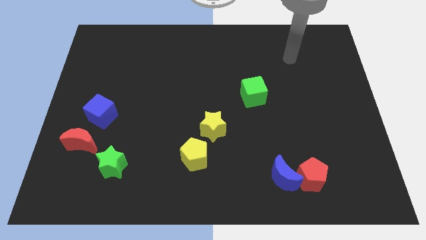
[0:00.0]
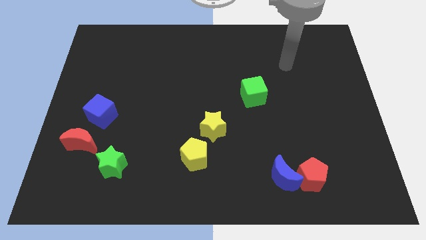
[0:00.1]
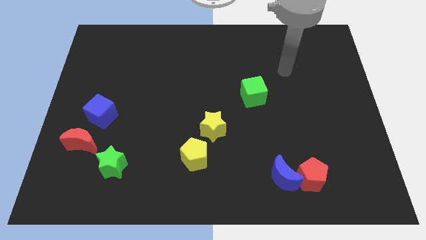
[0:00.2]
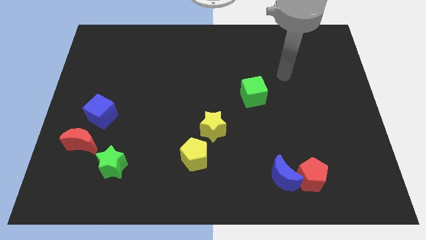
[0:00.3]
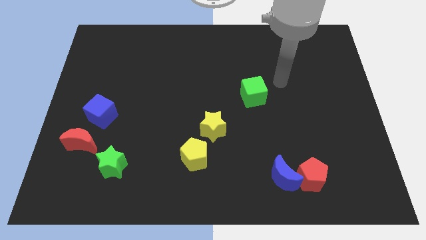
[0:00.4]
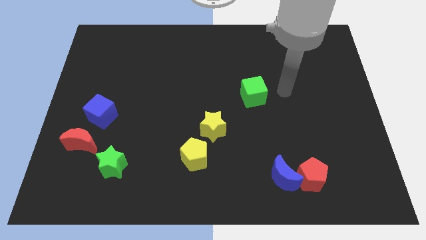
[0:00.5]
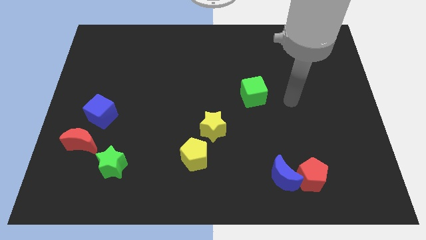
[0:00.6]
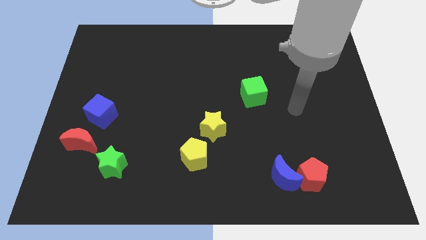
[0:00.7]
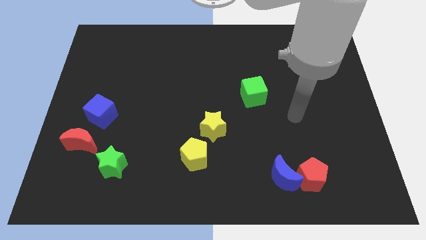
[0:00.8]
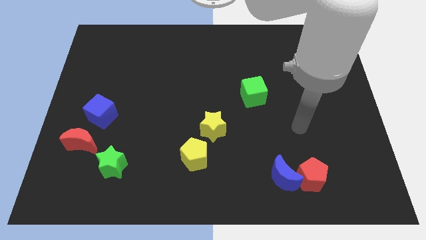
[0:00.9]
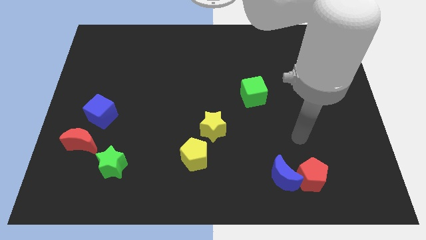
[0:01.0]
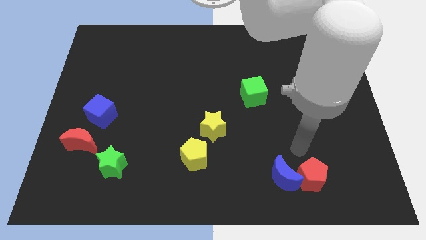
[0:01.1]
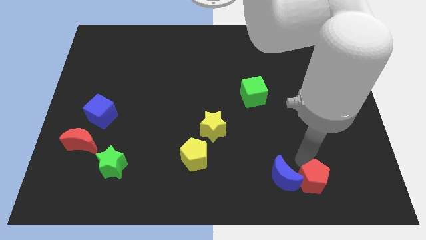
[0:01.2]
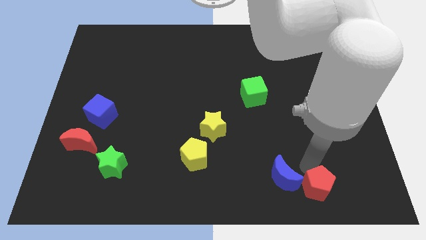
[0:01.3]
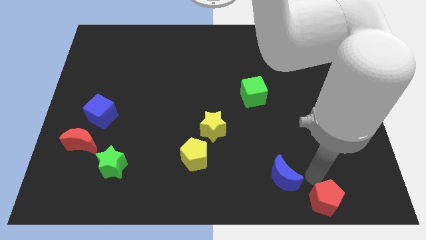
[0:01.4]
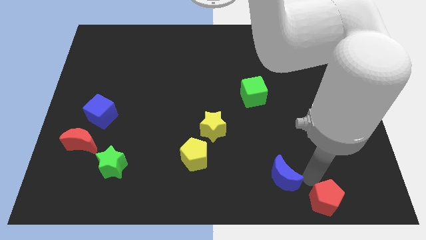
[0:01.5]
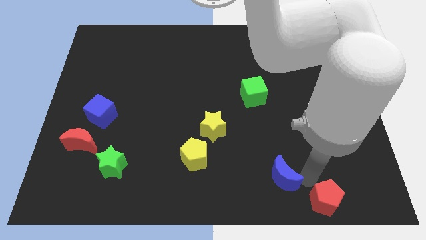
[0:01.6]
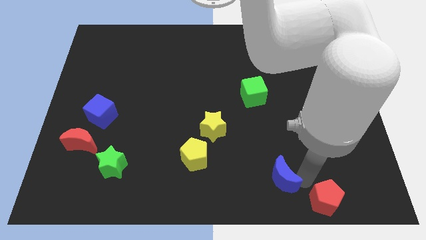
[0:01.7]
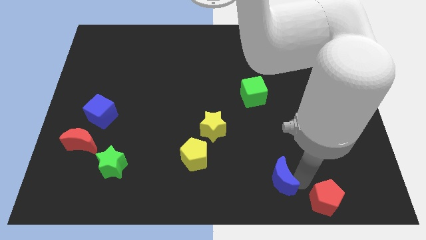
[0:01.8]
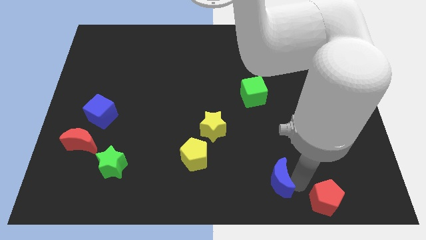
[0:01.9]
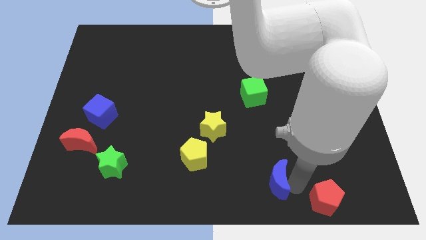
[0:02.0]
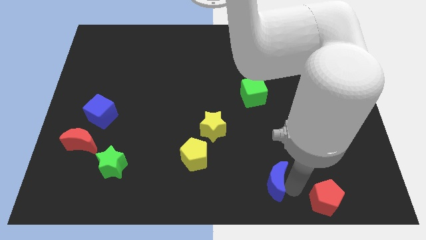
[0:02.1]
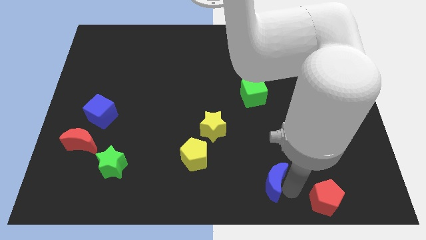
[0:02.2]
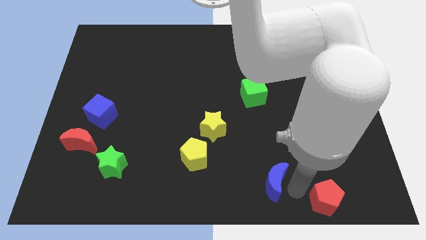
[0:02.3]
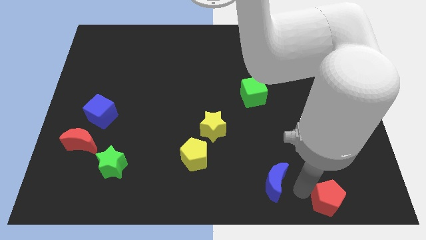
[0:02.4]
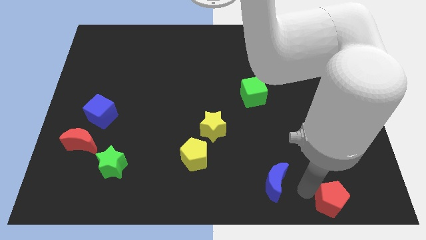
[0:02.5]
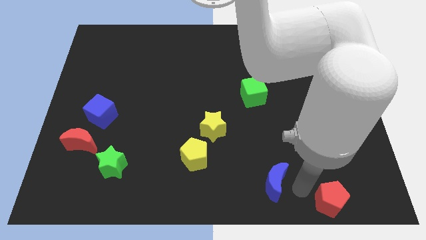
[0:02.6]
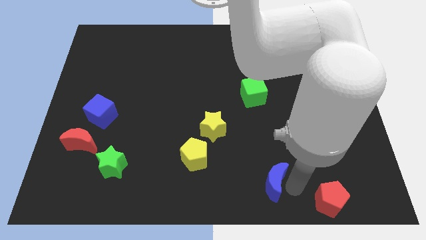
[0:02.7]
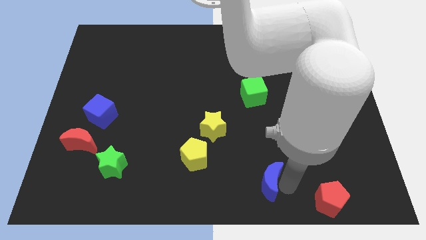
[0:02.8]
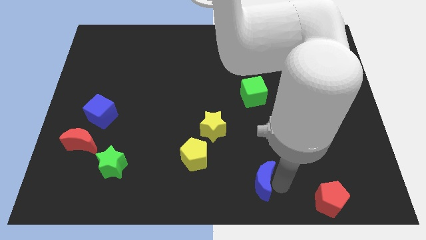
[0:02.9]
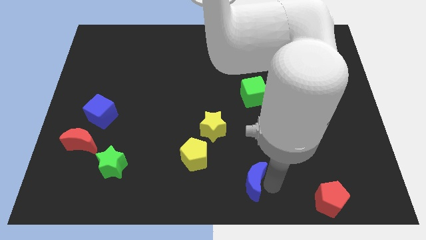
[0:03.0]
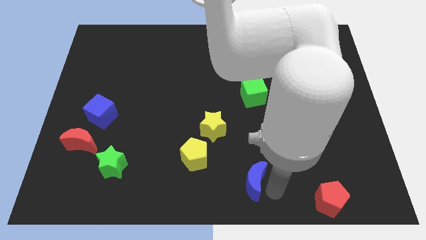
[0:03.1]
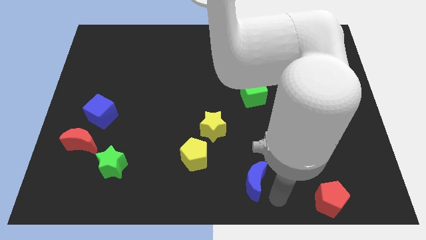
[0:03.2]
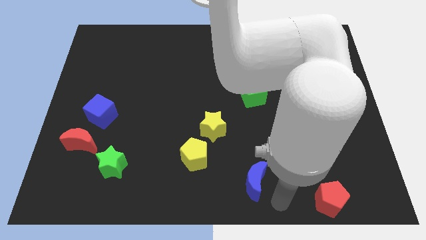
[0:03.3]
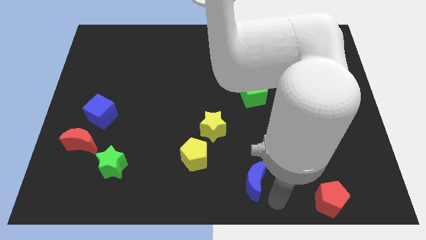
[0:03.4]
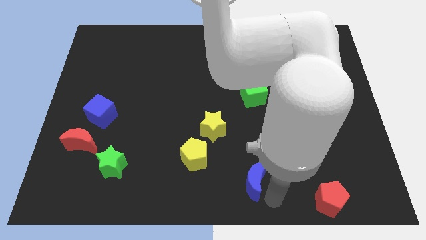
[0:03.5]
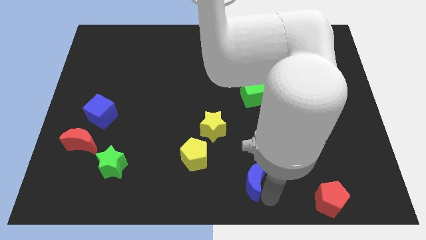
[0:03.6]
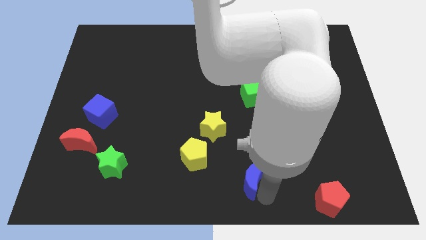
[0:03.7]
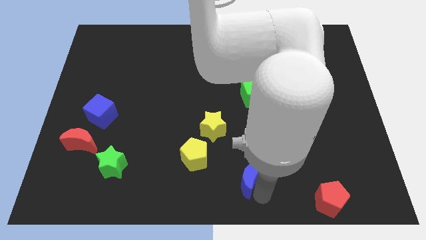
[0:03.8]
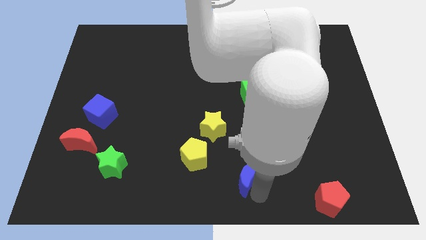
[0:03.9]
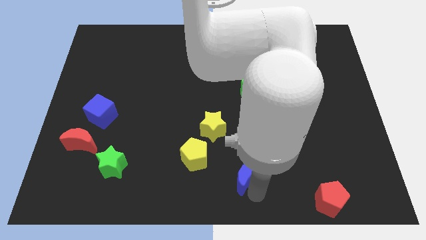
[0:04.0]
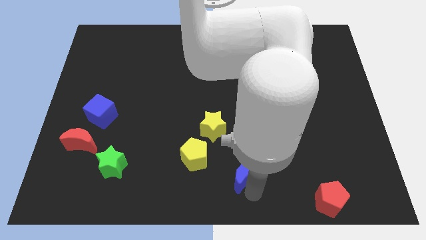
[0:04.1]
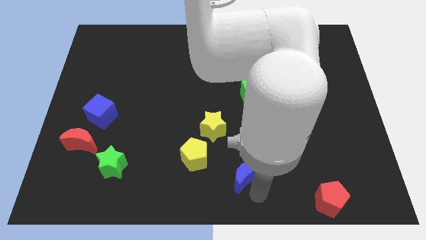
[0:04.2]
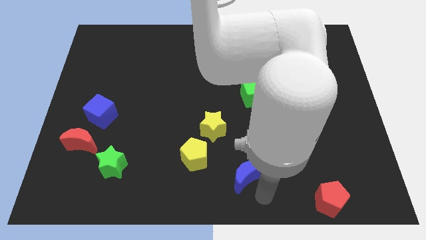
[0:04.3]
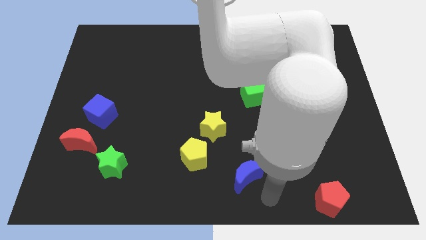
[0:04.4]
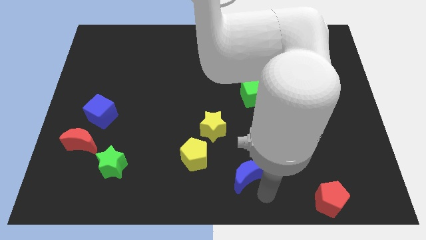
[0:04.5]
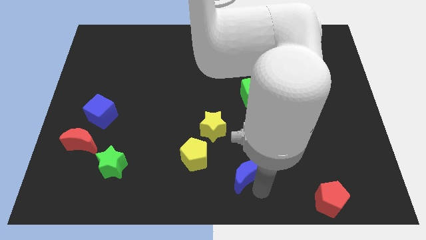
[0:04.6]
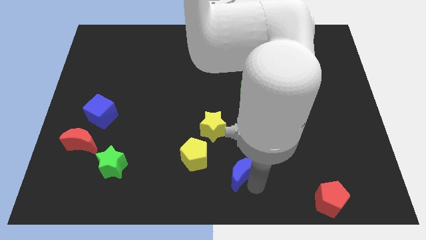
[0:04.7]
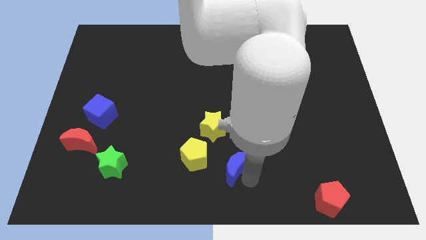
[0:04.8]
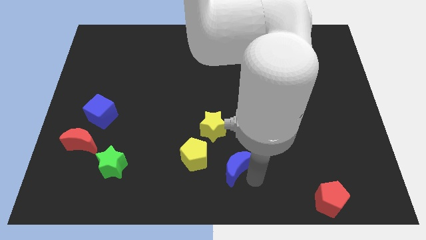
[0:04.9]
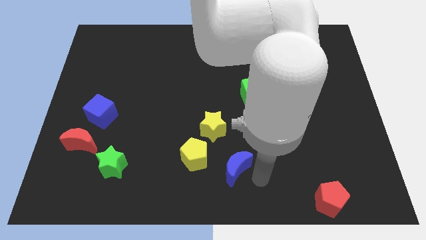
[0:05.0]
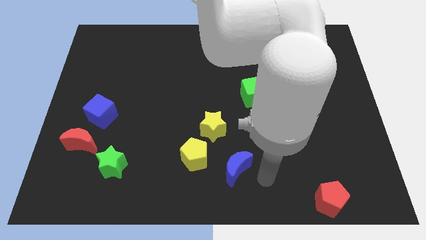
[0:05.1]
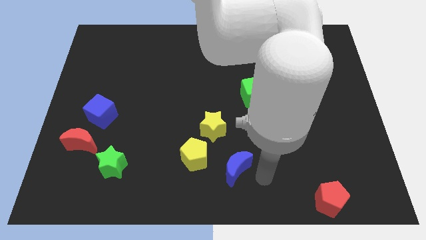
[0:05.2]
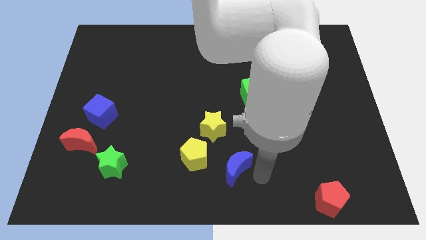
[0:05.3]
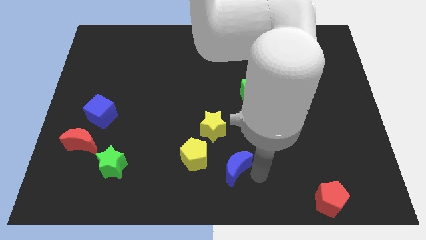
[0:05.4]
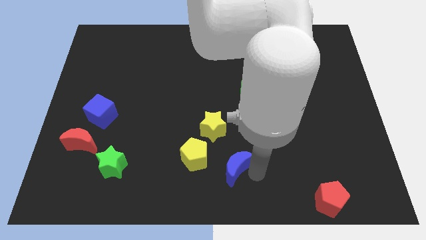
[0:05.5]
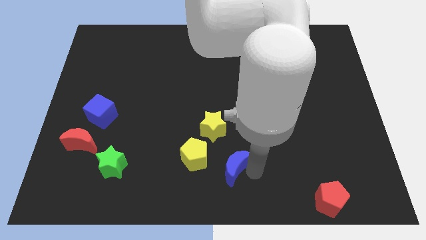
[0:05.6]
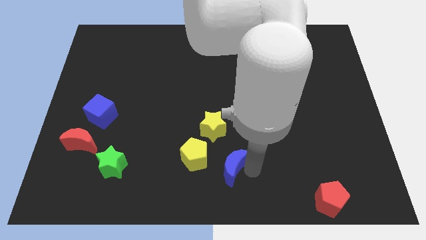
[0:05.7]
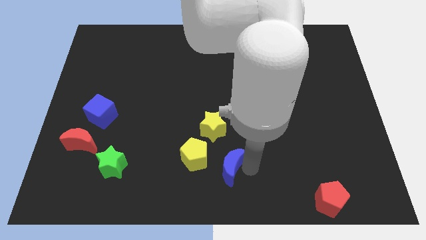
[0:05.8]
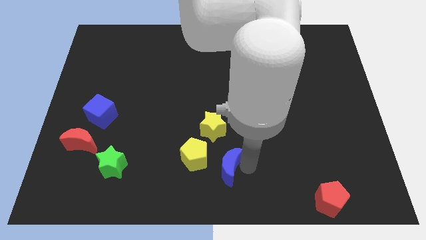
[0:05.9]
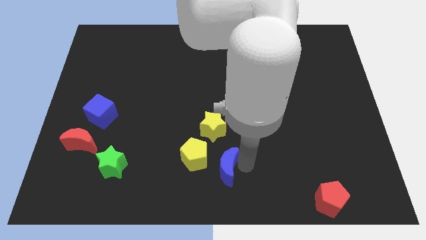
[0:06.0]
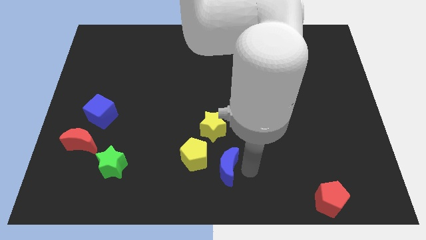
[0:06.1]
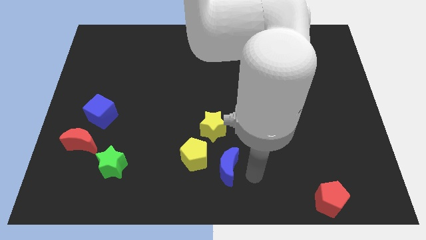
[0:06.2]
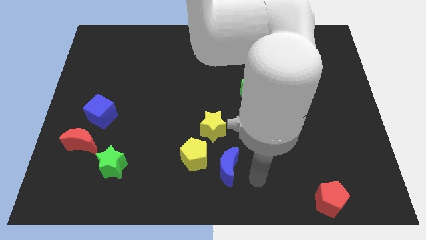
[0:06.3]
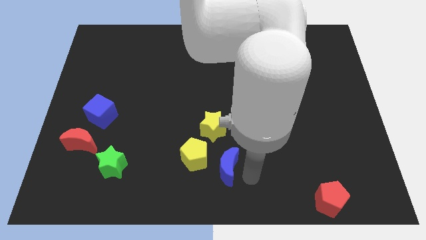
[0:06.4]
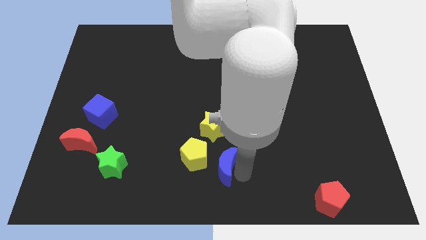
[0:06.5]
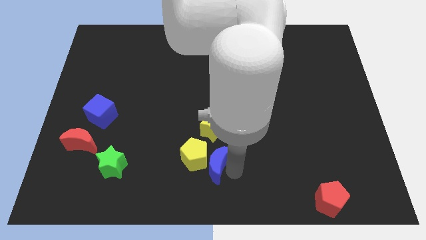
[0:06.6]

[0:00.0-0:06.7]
move the blue moon towards the yellow pentagon
